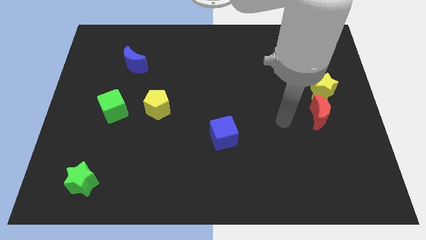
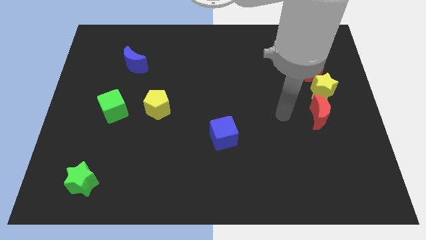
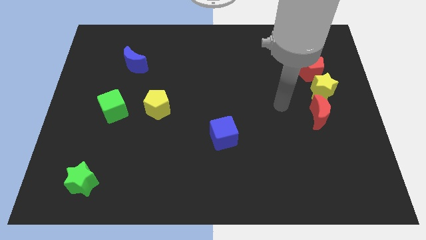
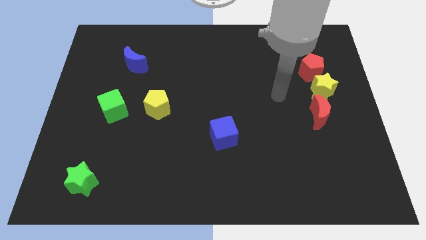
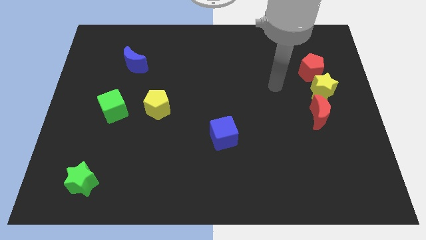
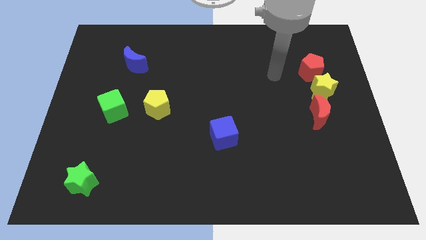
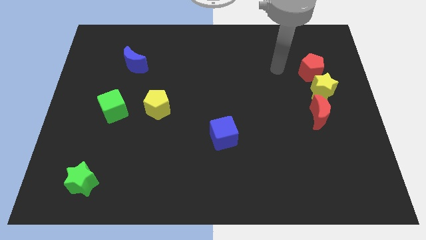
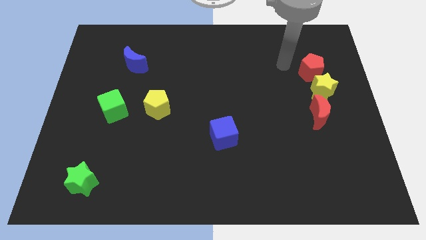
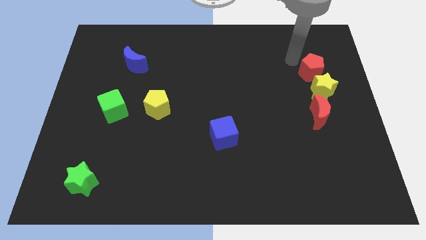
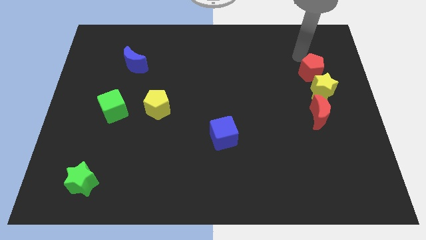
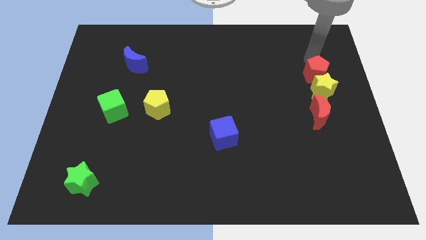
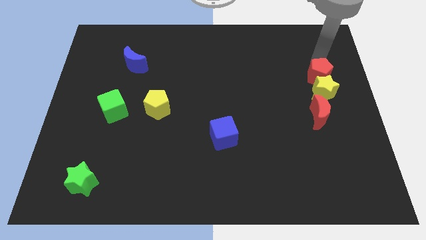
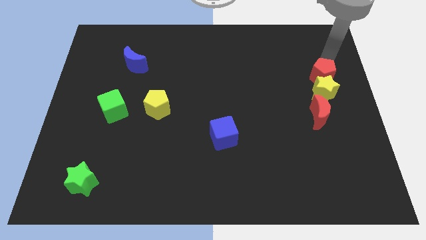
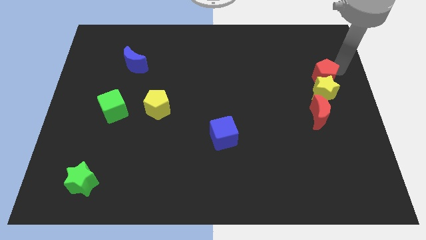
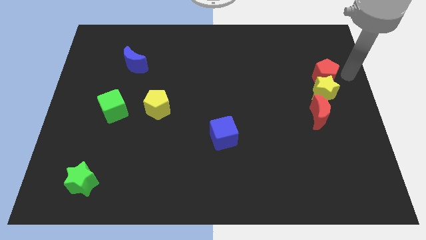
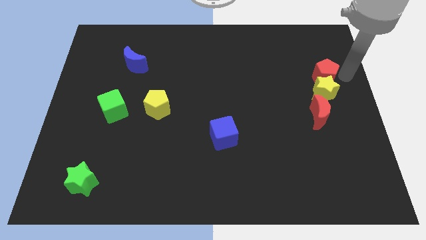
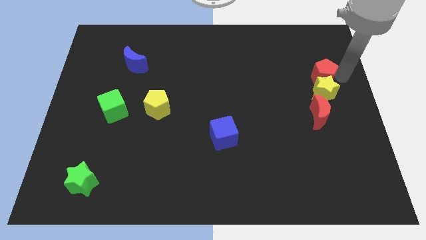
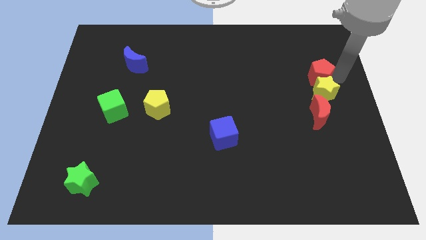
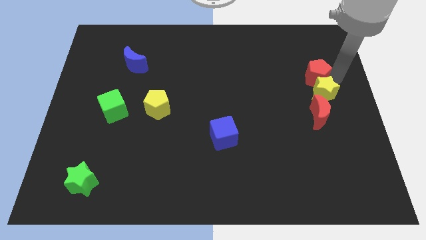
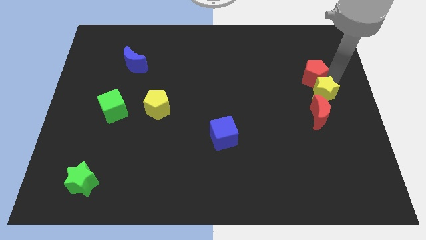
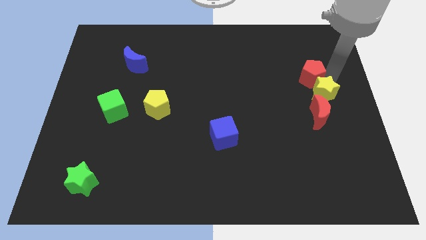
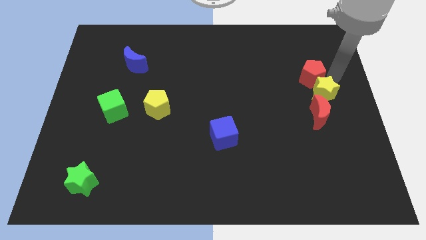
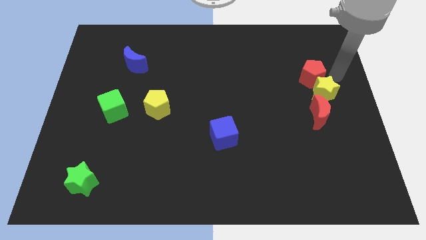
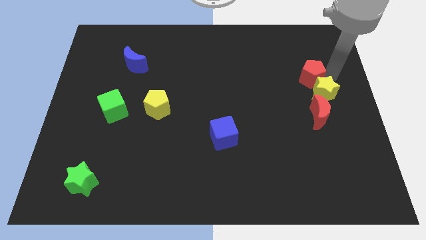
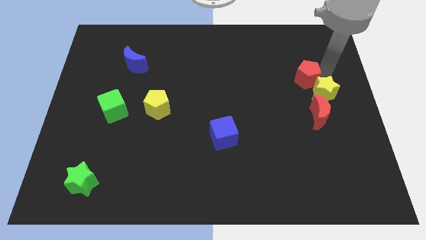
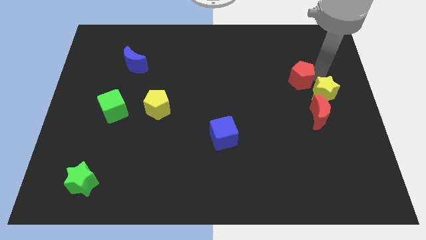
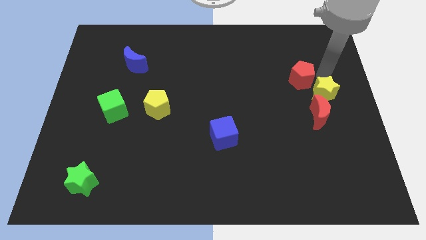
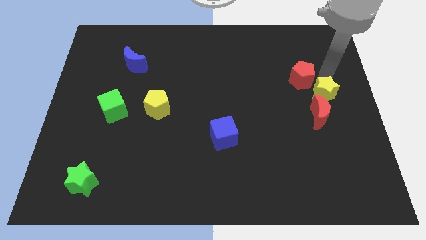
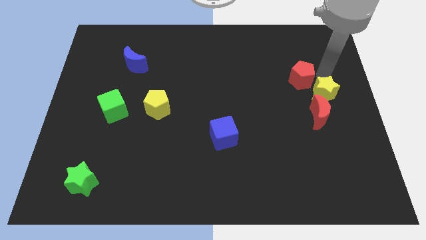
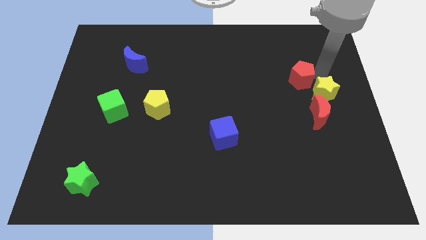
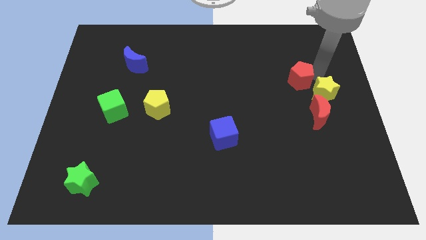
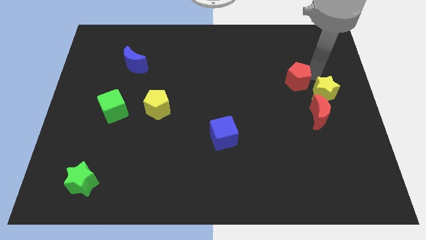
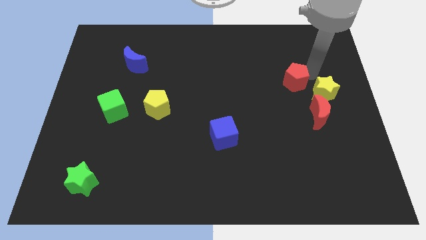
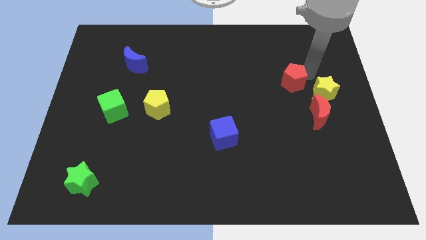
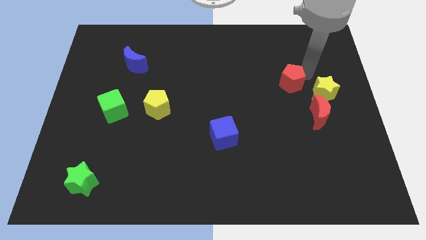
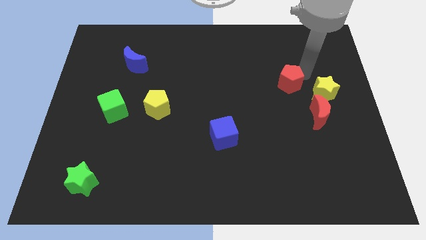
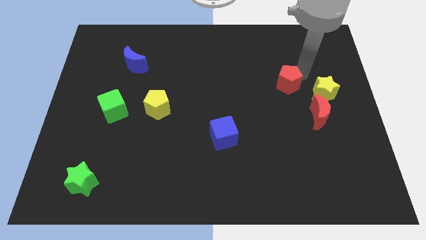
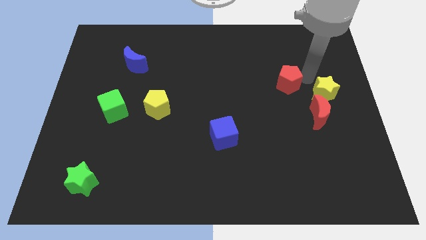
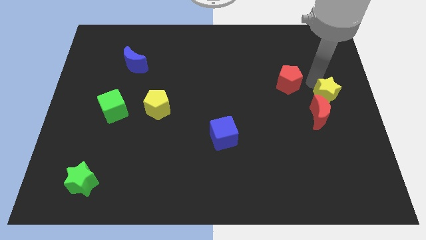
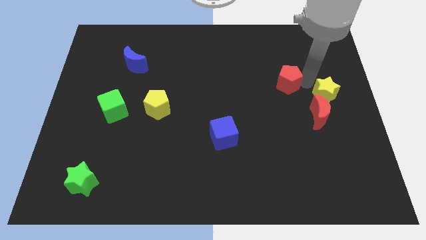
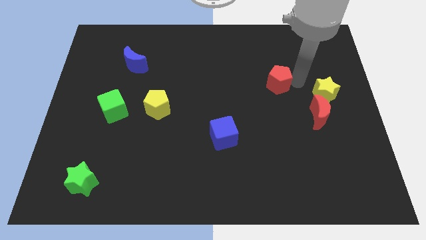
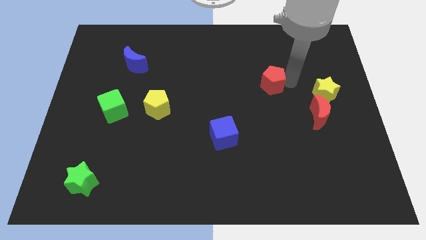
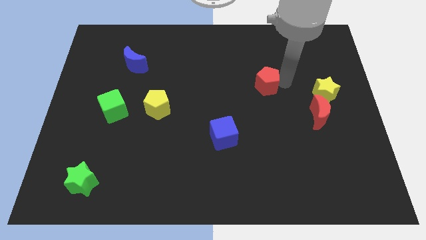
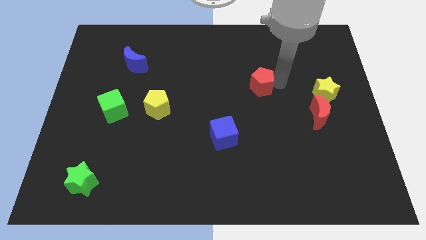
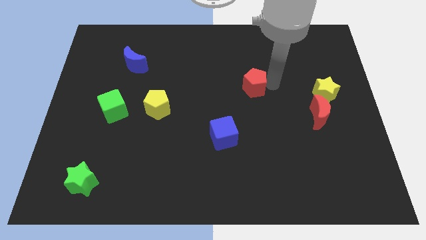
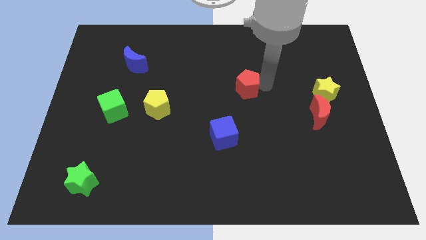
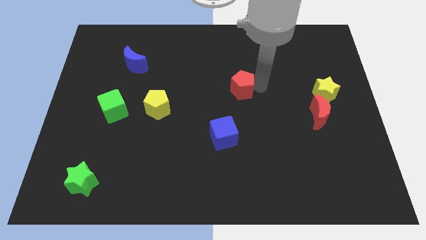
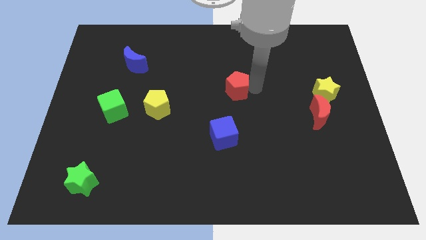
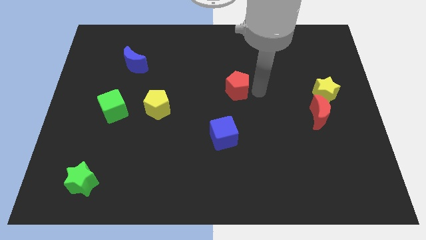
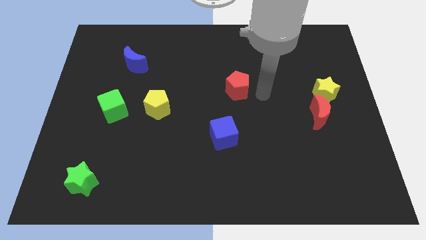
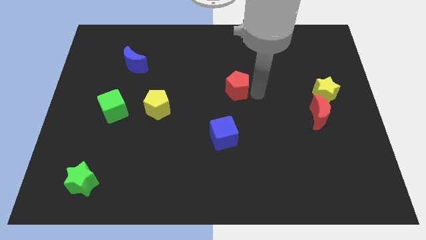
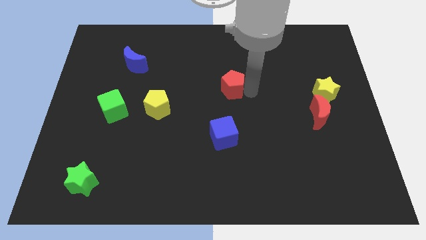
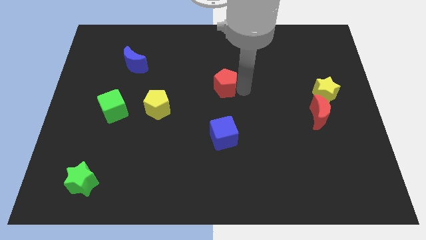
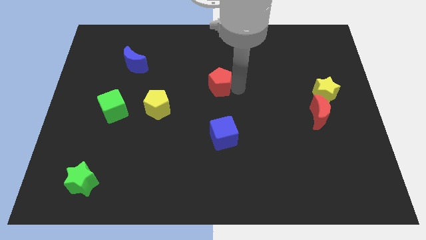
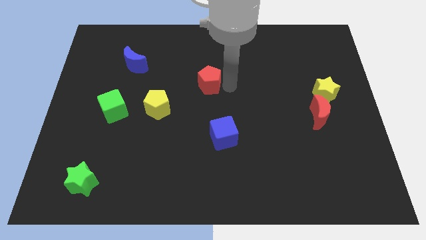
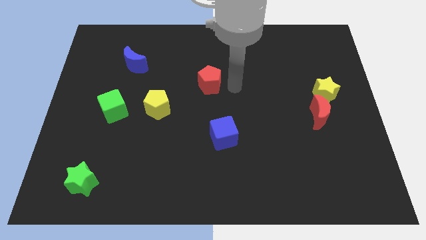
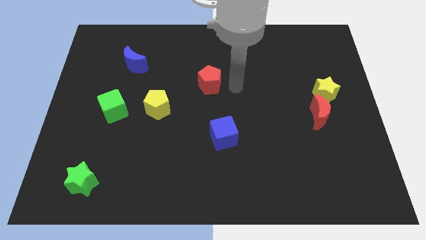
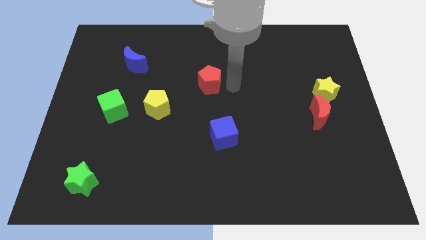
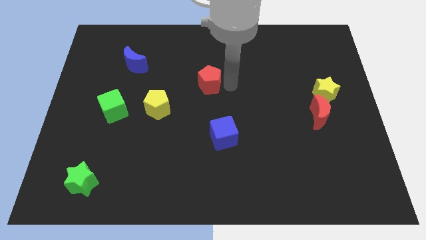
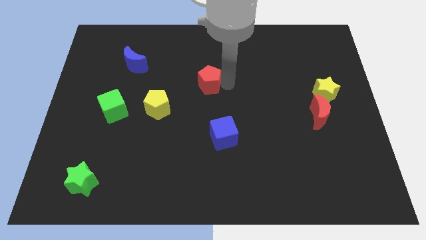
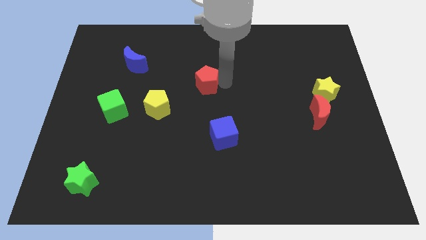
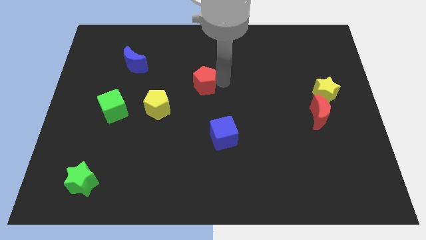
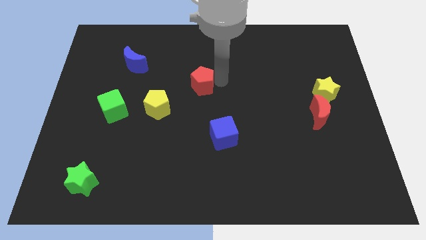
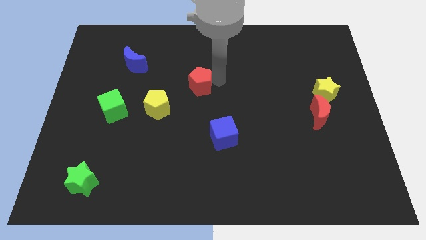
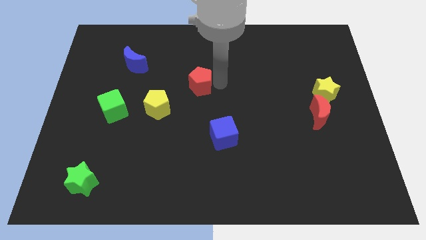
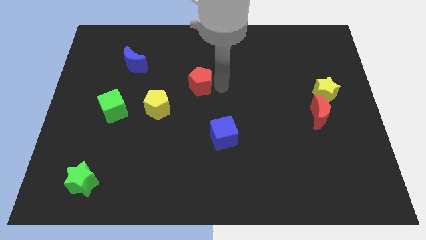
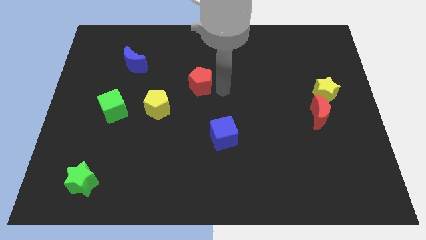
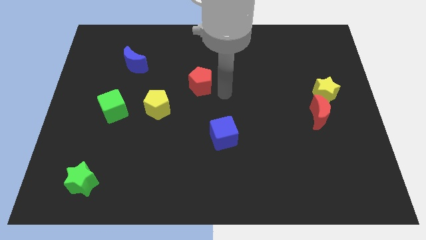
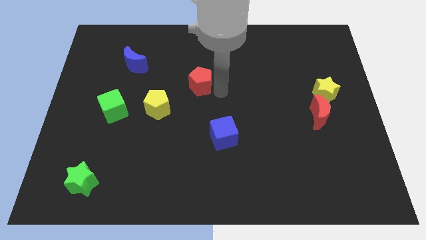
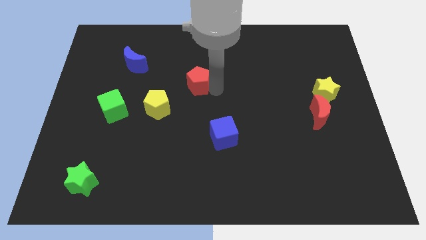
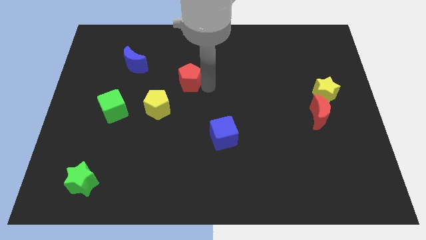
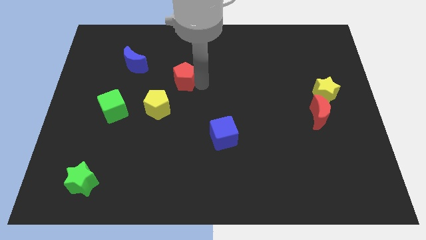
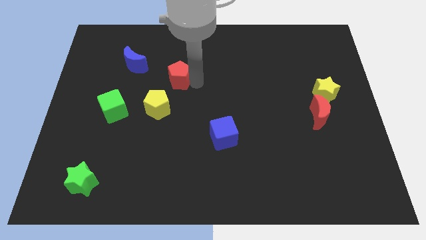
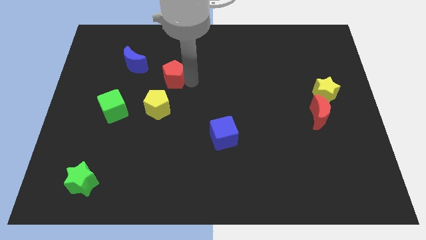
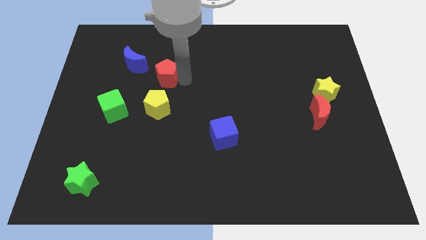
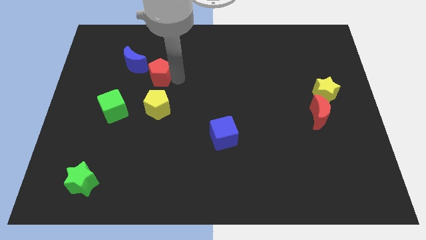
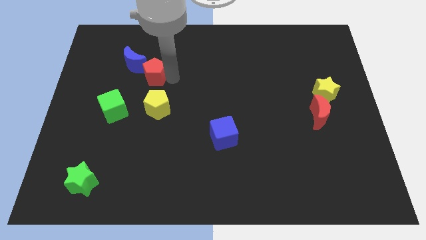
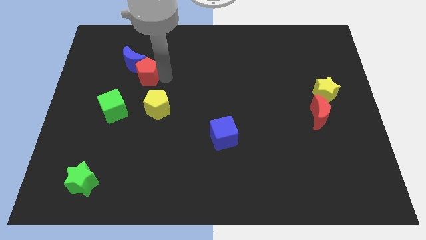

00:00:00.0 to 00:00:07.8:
move the red pentagon towards the blue moon
